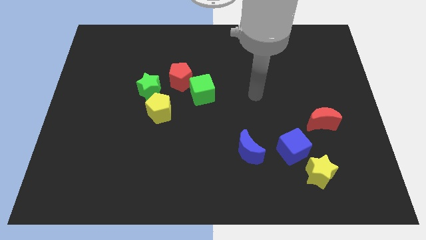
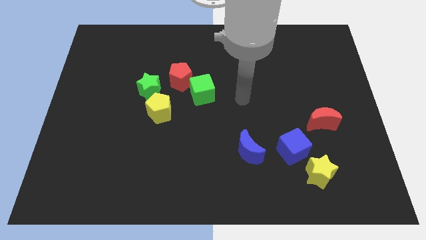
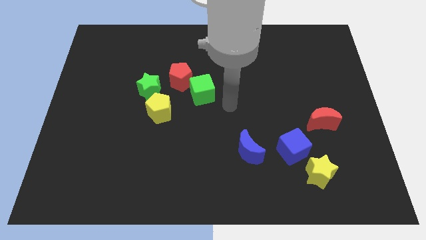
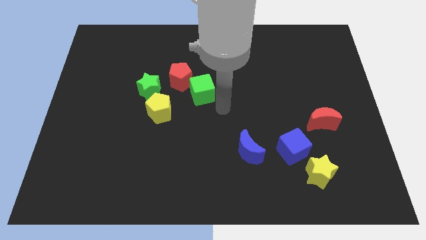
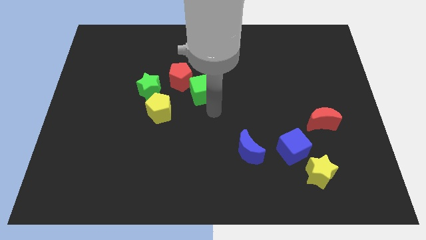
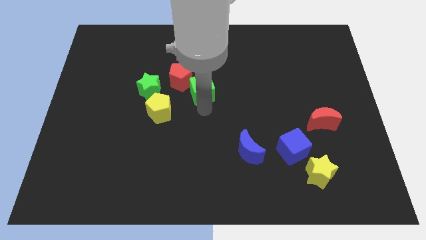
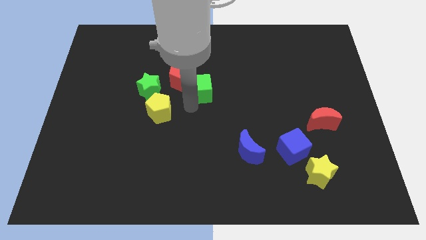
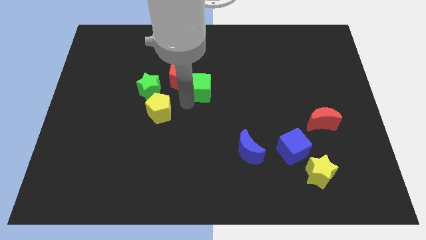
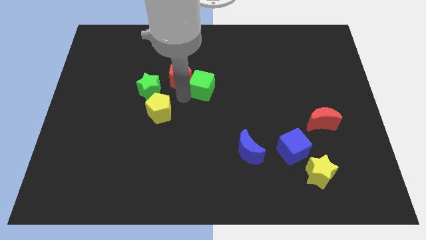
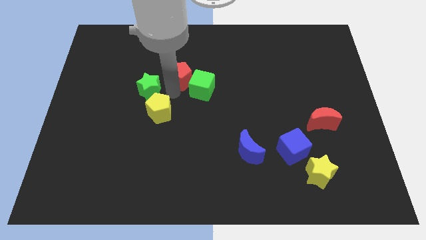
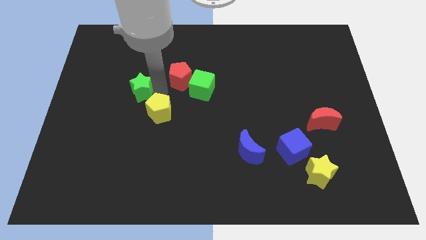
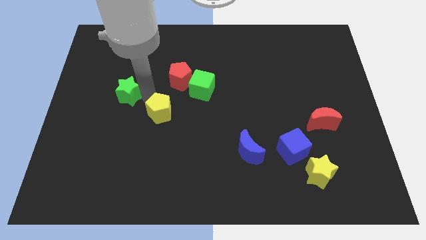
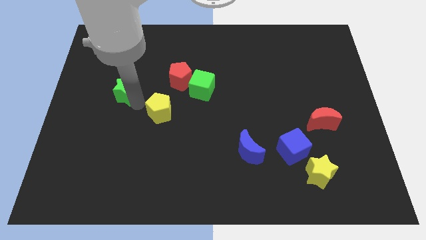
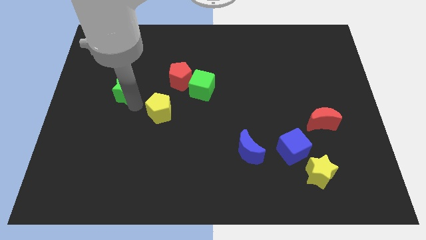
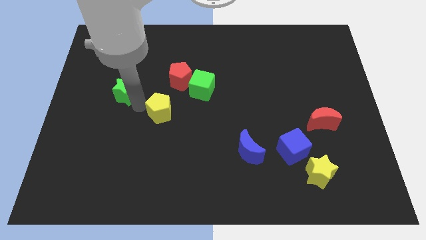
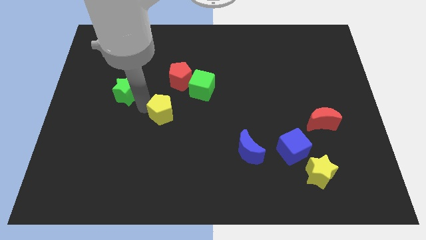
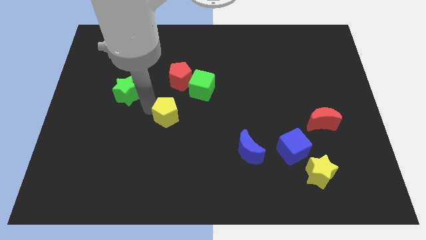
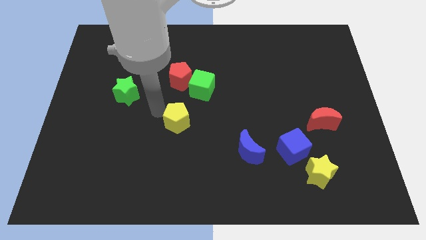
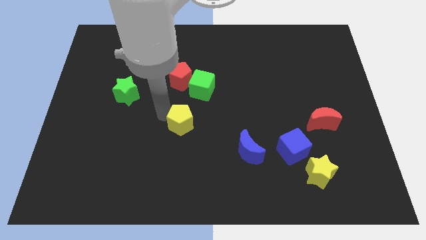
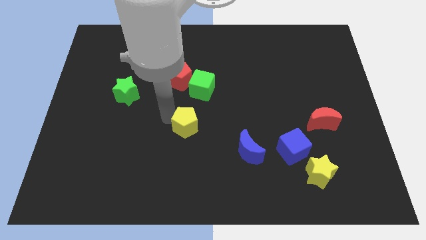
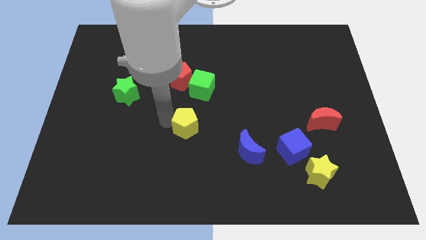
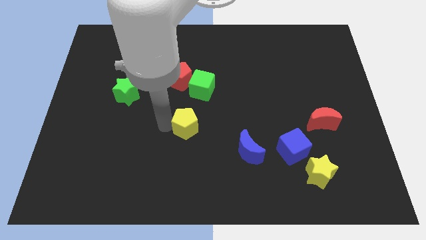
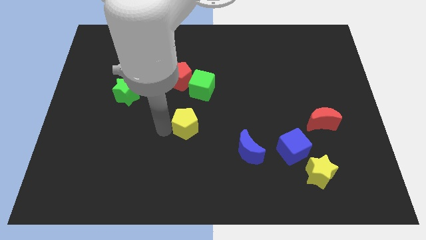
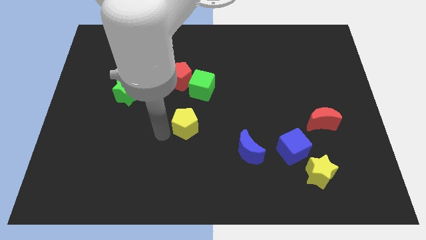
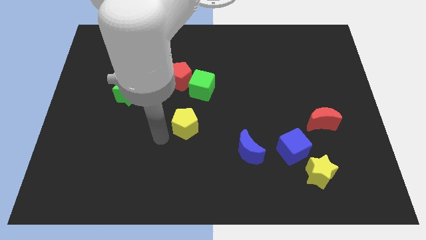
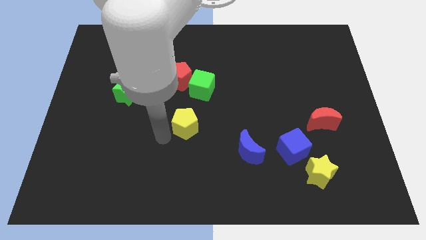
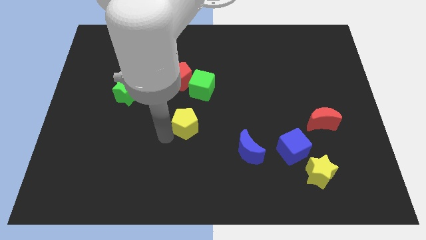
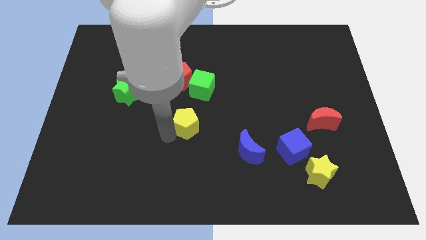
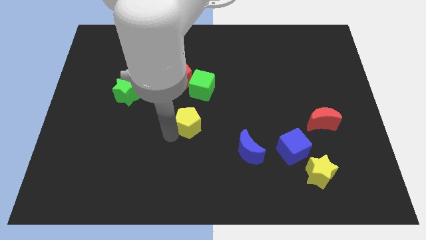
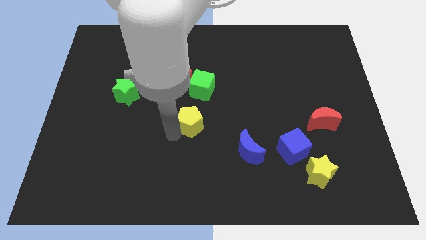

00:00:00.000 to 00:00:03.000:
slide the yellow pentagon to the right a little bit

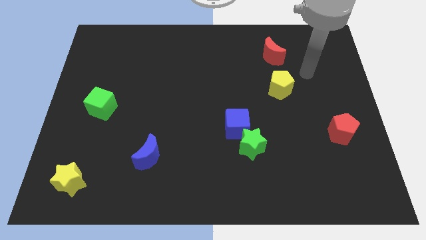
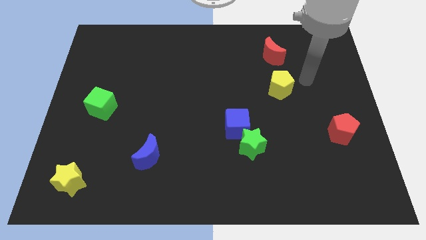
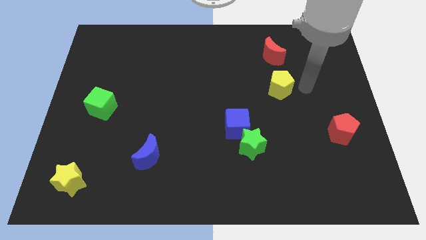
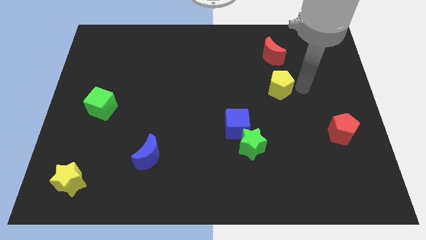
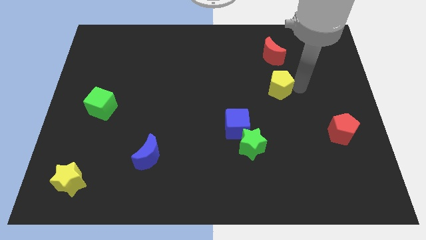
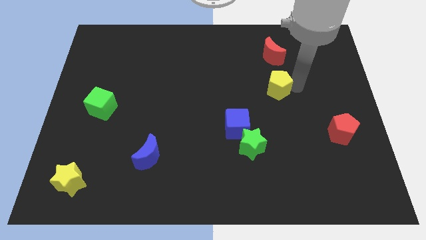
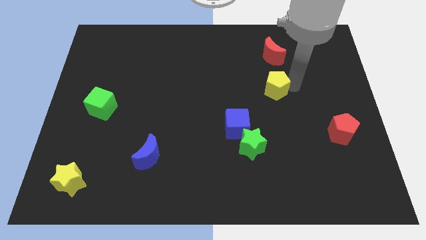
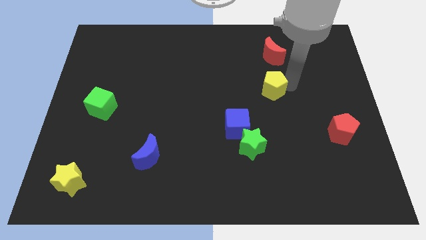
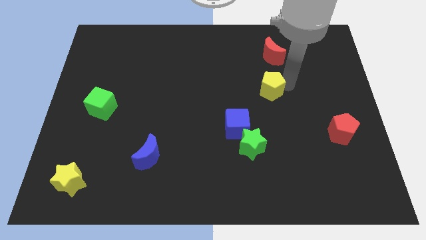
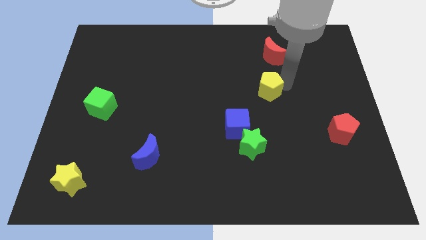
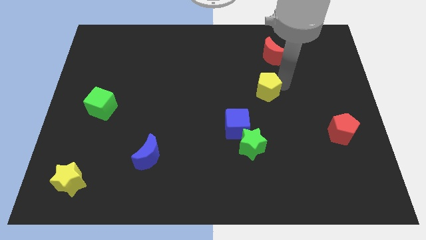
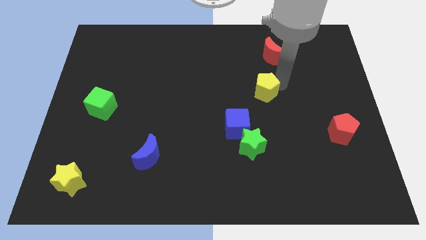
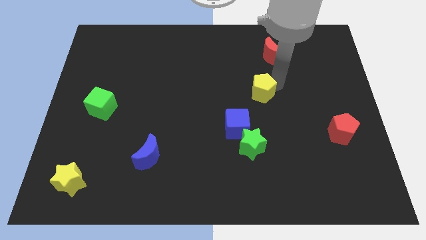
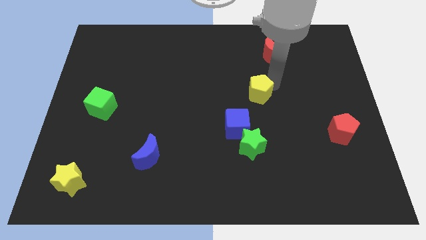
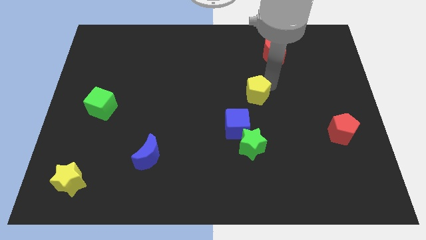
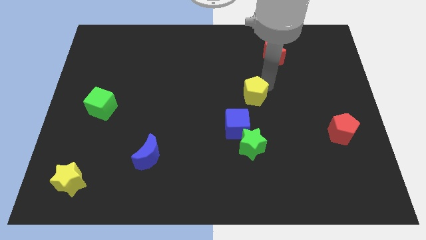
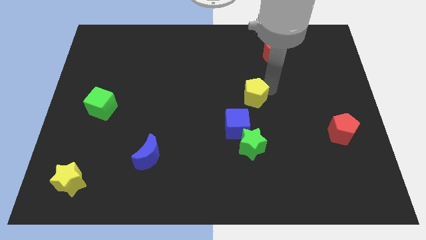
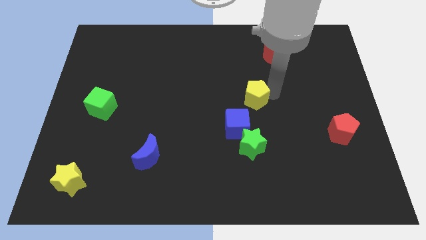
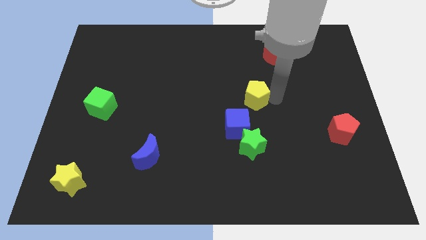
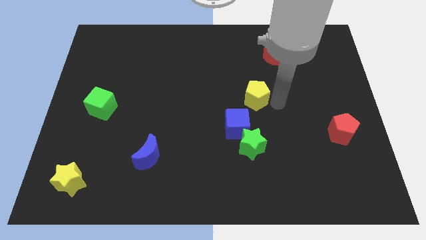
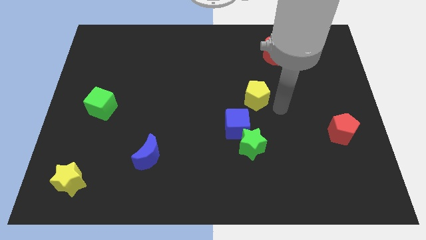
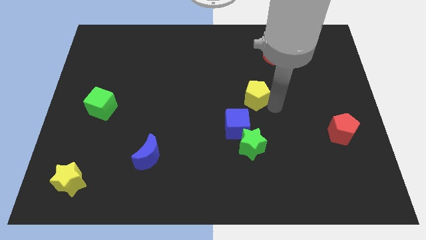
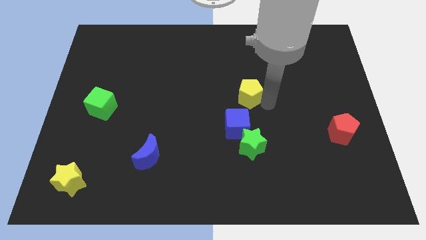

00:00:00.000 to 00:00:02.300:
slide the yellow pentagon left slightly

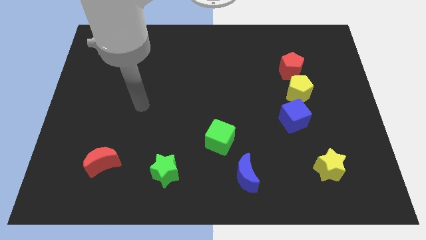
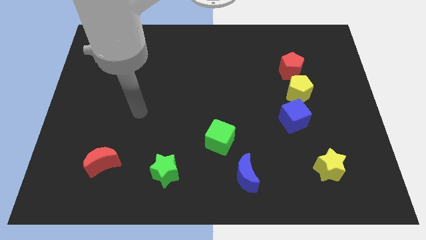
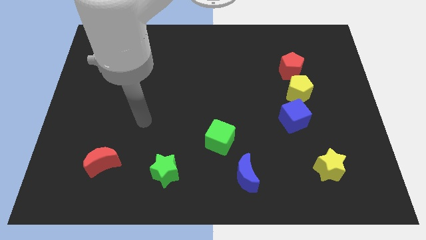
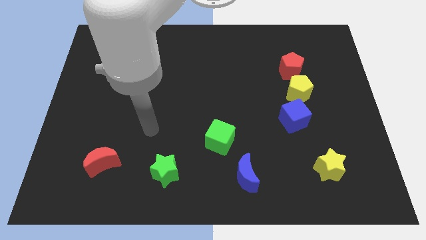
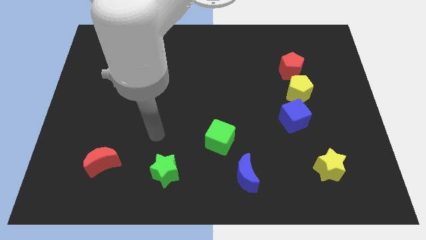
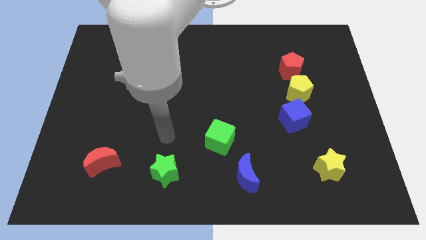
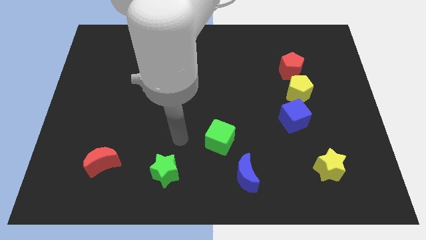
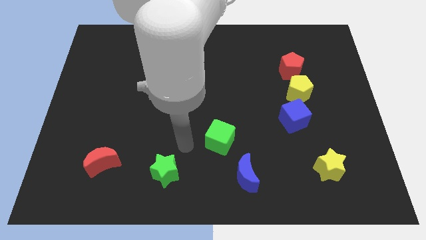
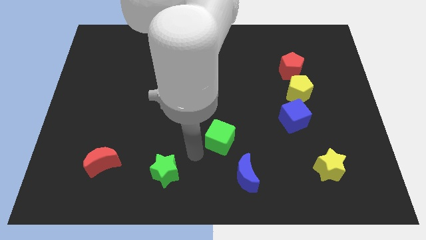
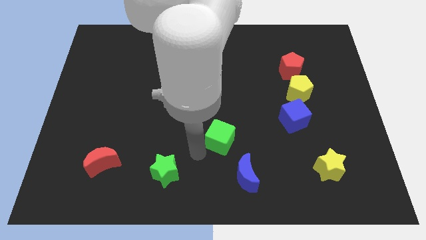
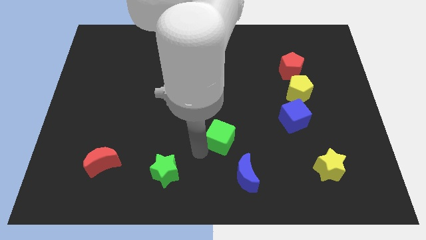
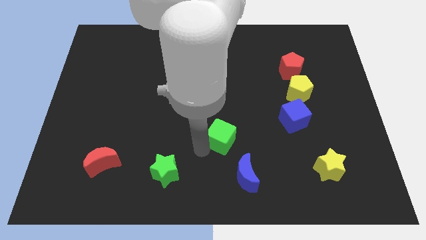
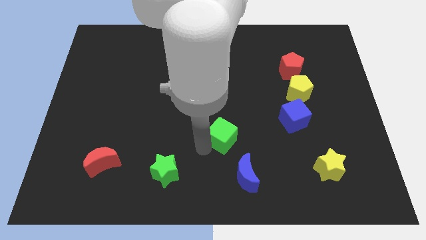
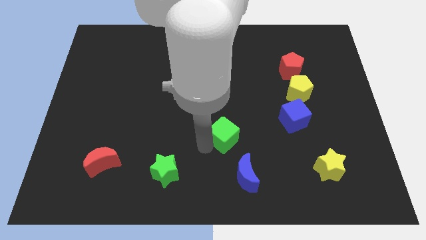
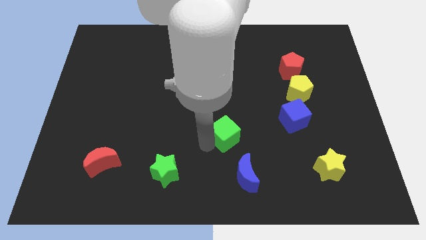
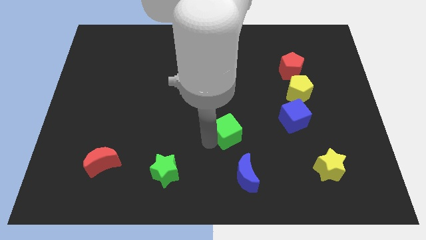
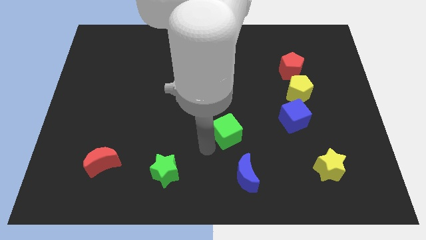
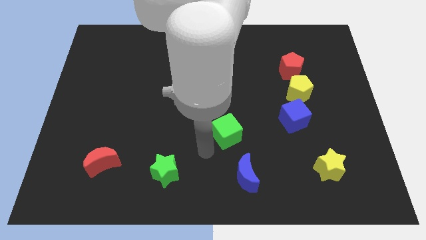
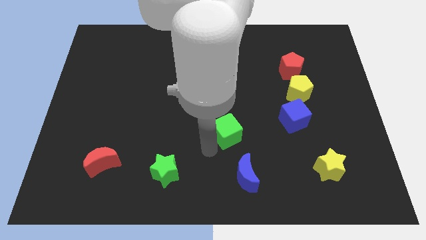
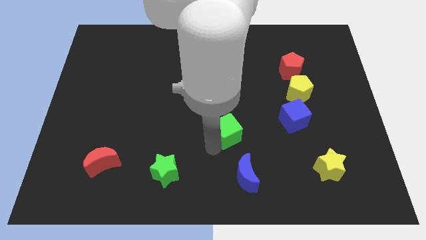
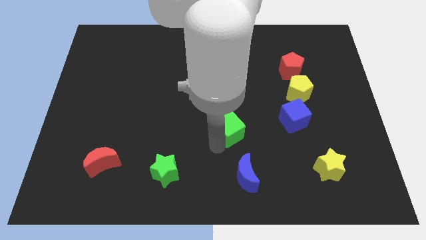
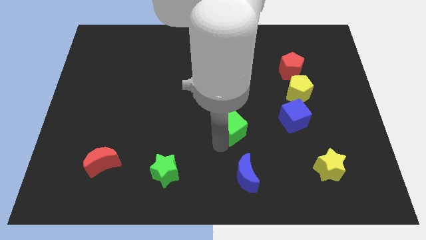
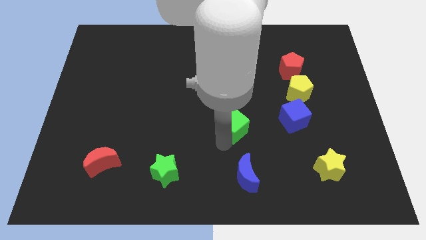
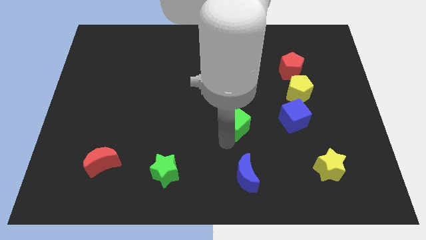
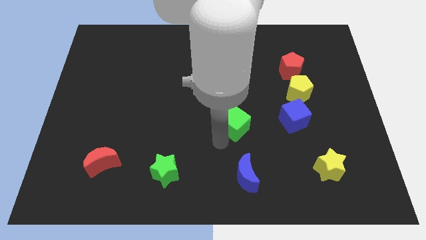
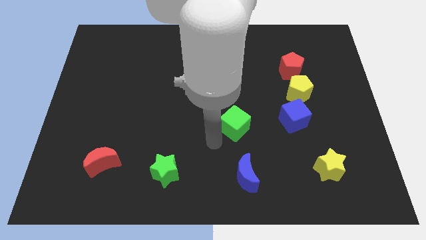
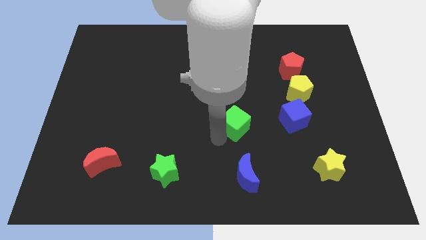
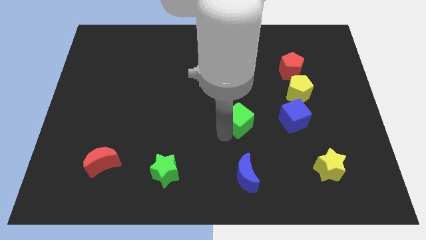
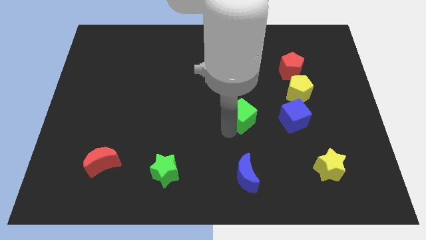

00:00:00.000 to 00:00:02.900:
push the green cube up and right a little
